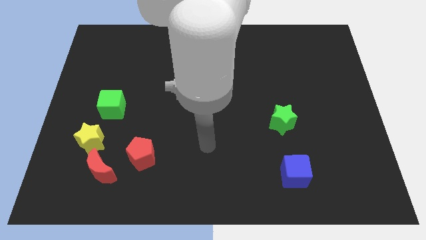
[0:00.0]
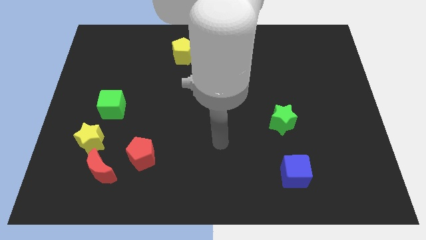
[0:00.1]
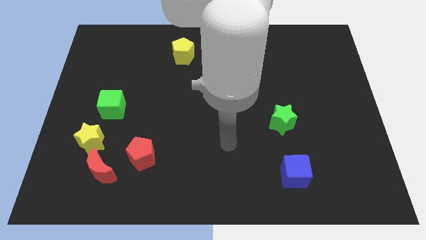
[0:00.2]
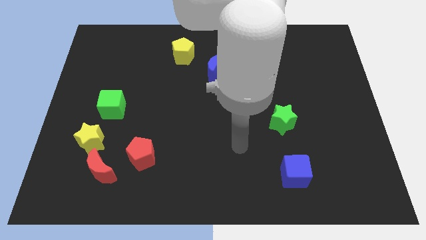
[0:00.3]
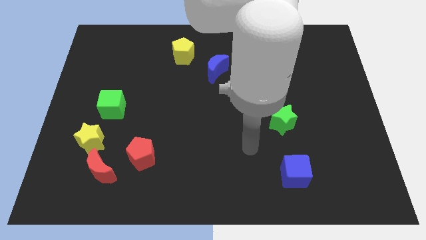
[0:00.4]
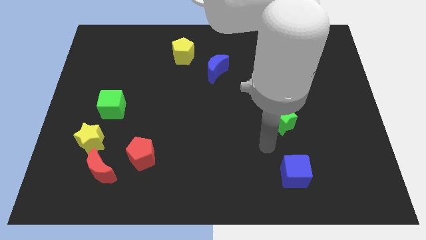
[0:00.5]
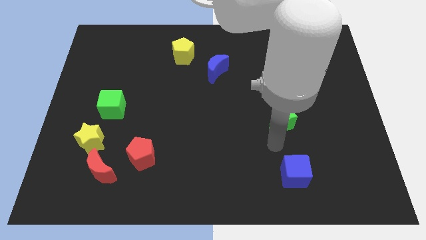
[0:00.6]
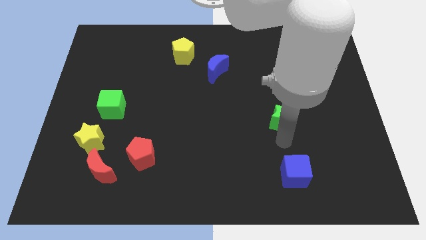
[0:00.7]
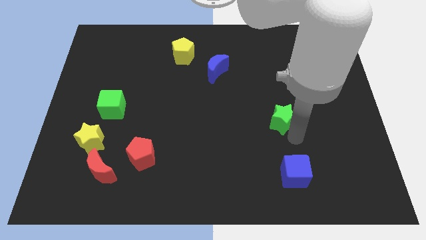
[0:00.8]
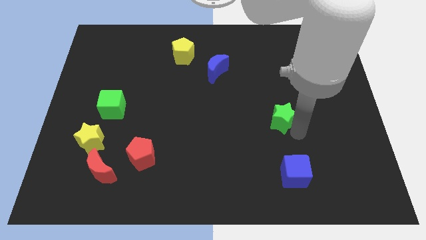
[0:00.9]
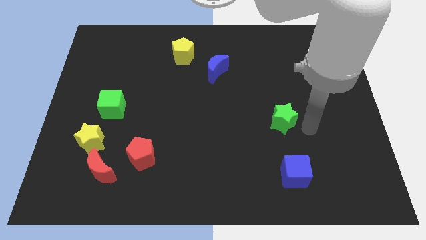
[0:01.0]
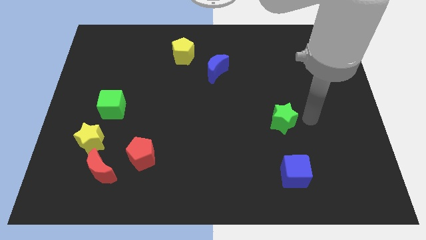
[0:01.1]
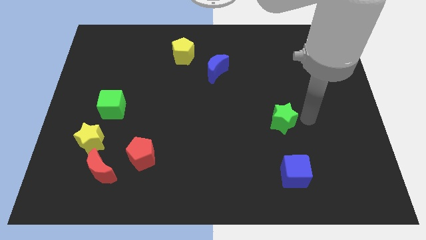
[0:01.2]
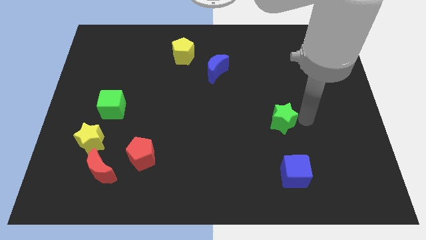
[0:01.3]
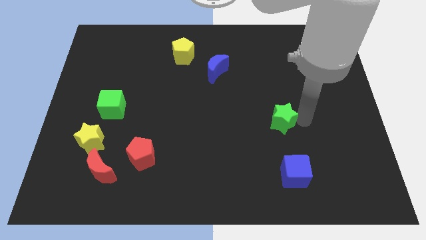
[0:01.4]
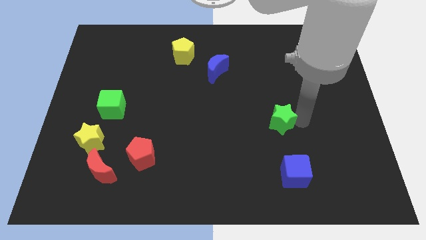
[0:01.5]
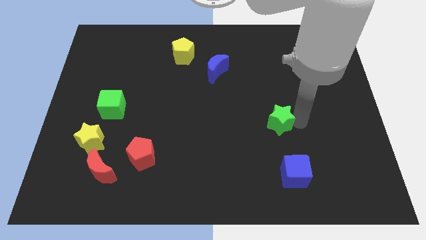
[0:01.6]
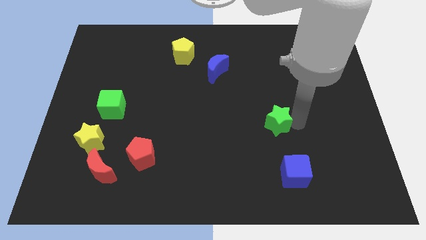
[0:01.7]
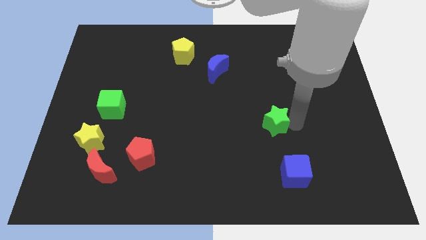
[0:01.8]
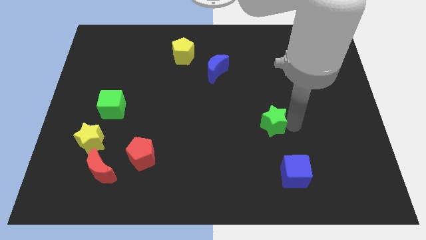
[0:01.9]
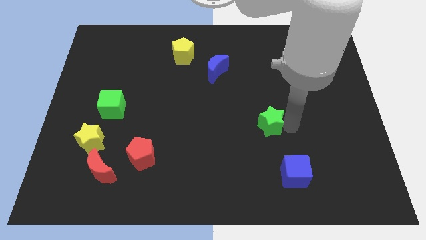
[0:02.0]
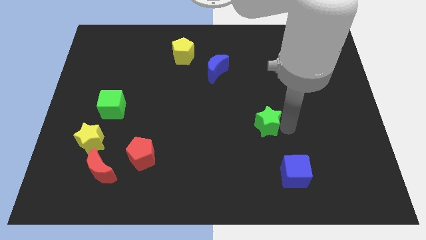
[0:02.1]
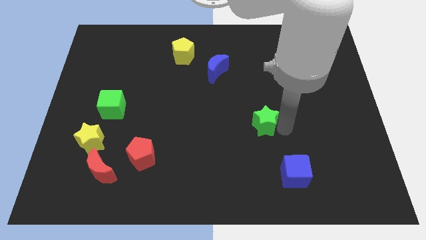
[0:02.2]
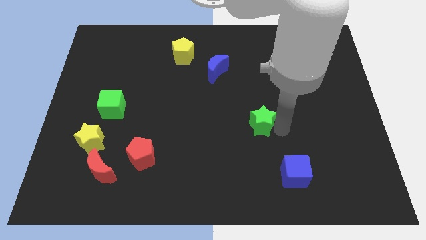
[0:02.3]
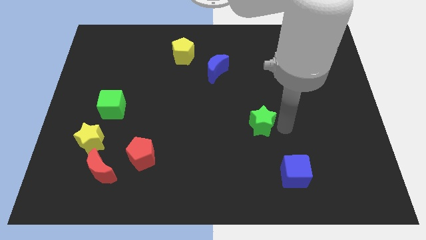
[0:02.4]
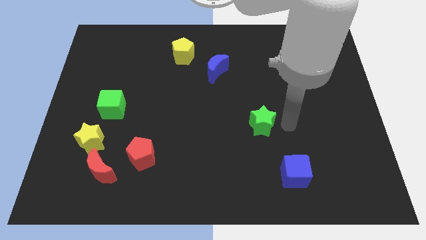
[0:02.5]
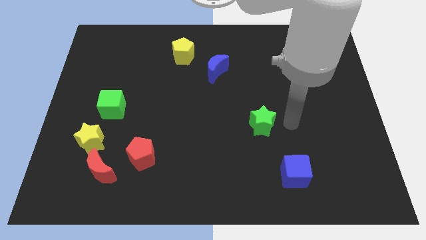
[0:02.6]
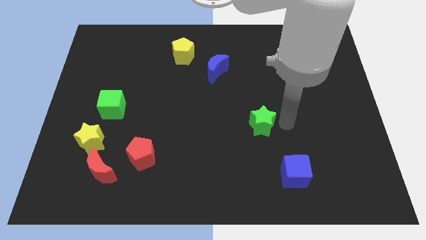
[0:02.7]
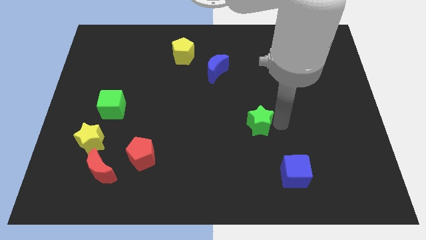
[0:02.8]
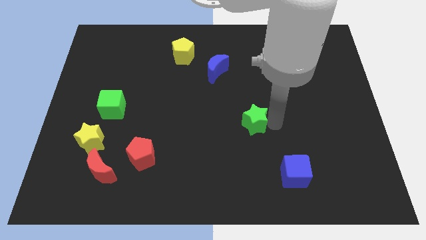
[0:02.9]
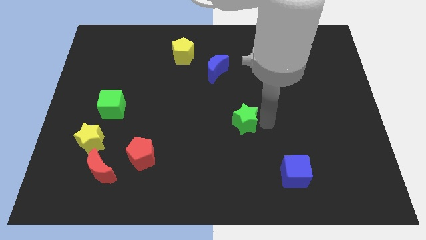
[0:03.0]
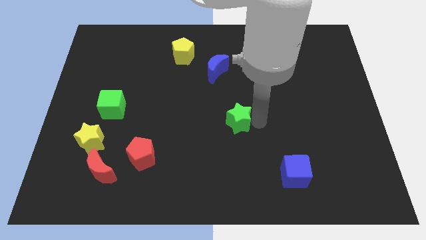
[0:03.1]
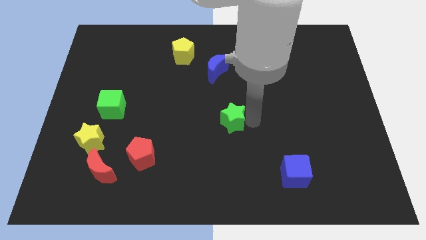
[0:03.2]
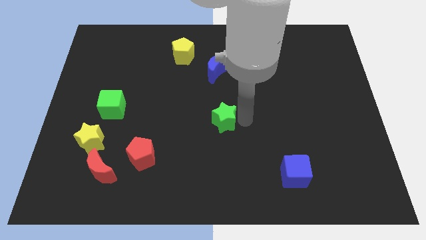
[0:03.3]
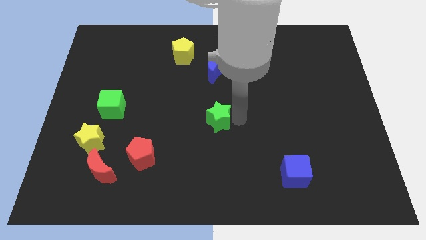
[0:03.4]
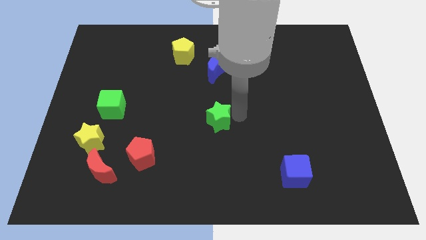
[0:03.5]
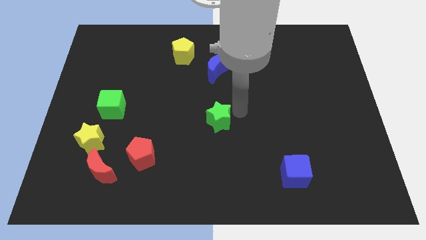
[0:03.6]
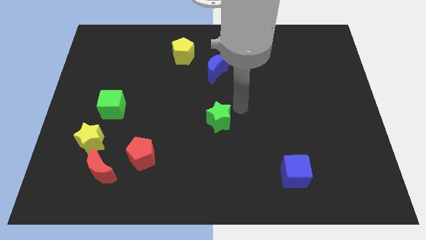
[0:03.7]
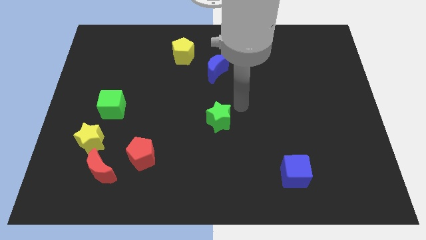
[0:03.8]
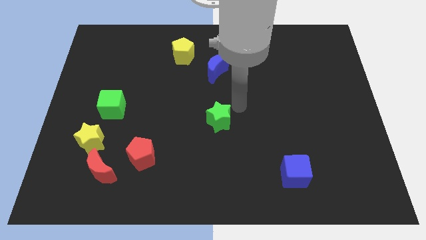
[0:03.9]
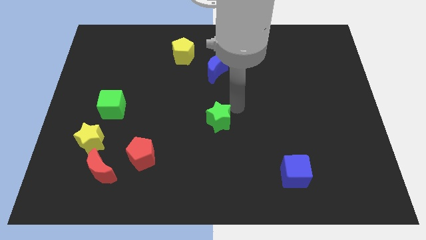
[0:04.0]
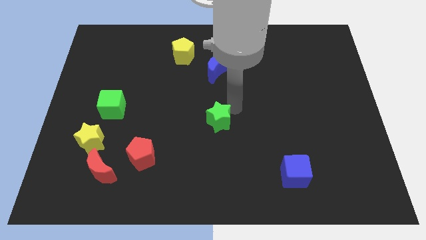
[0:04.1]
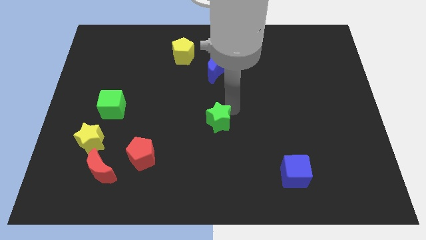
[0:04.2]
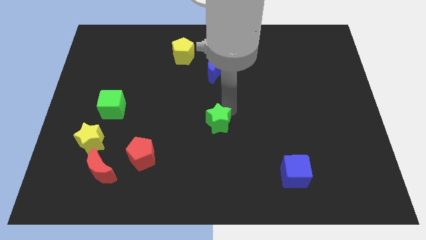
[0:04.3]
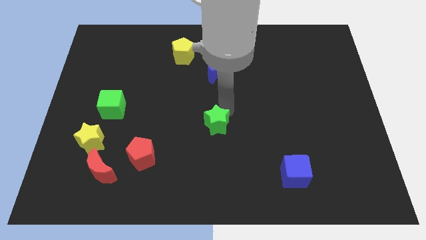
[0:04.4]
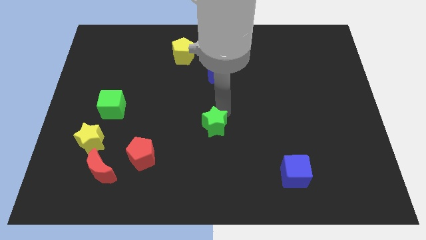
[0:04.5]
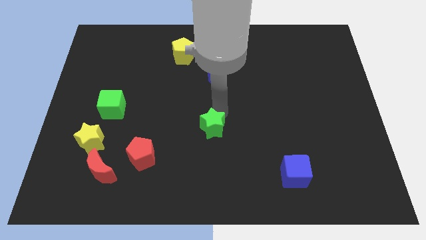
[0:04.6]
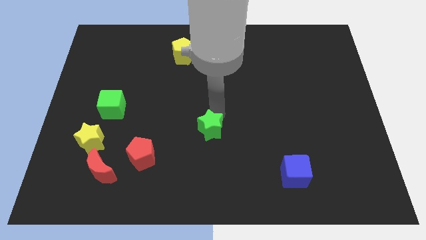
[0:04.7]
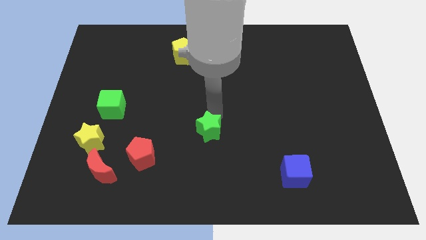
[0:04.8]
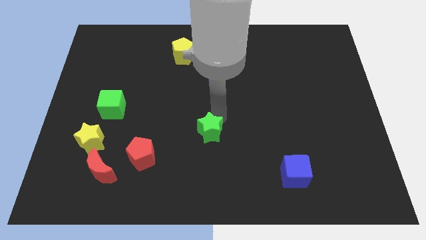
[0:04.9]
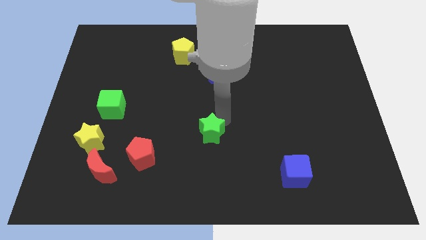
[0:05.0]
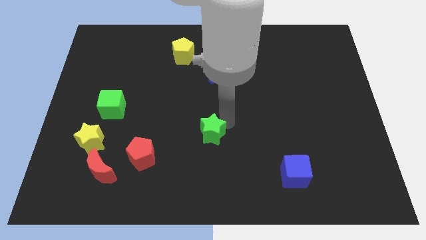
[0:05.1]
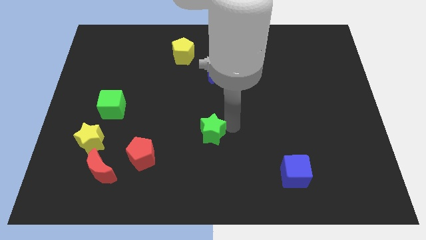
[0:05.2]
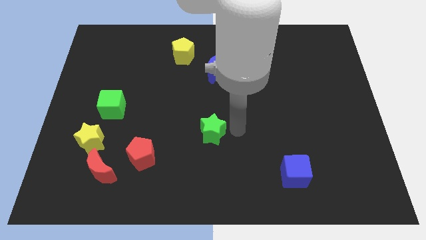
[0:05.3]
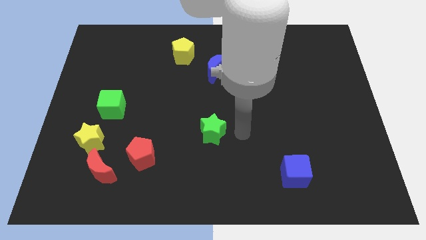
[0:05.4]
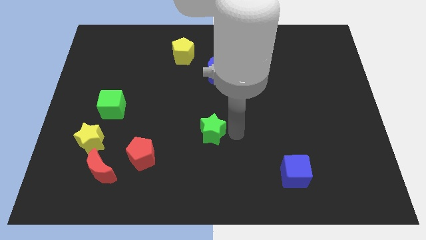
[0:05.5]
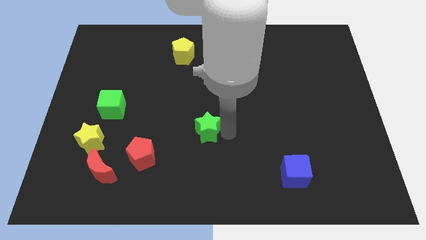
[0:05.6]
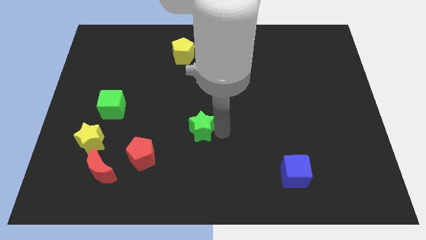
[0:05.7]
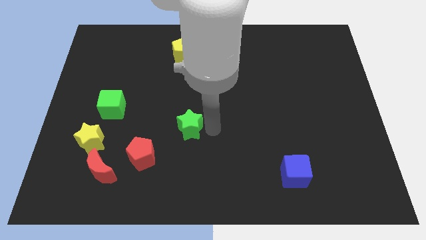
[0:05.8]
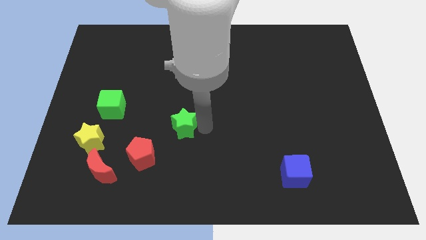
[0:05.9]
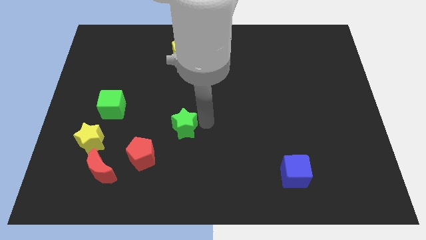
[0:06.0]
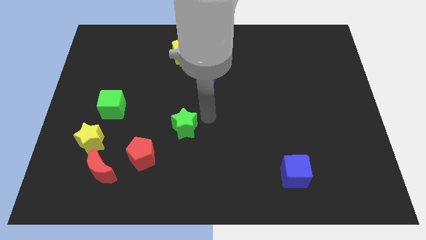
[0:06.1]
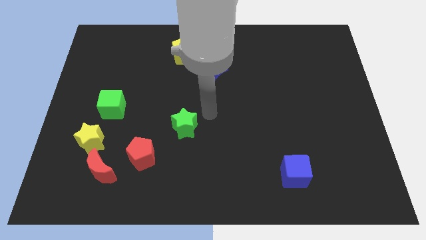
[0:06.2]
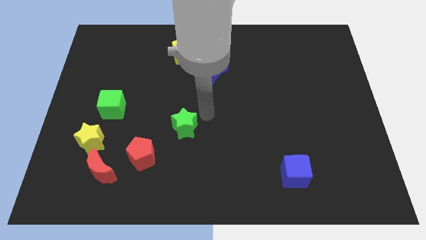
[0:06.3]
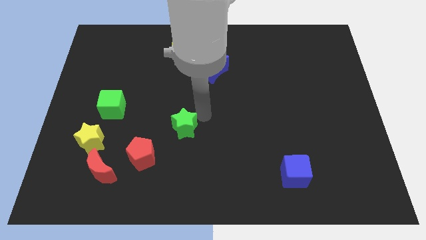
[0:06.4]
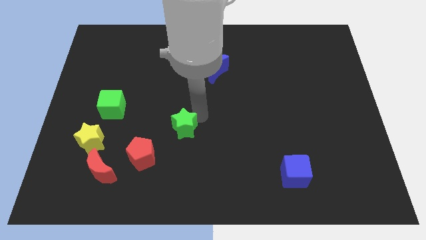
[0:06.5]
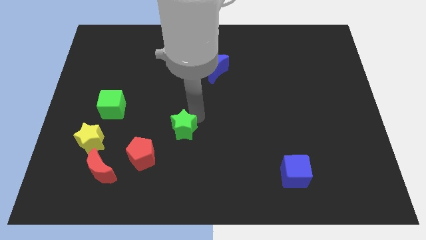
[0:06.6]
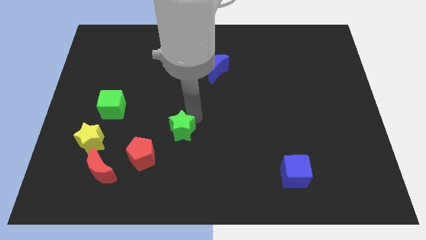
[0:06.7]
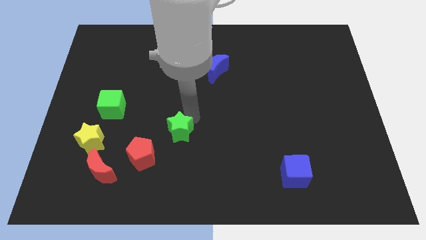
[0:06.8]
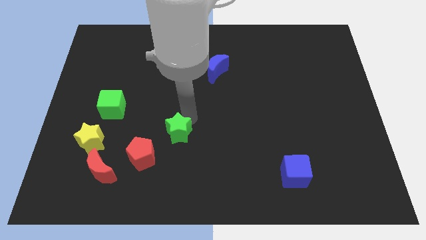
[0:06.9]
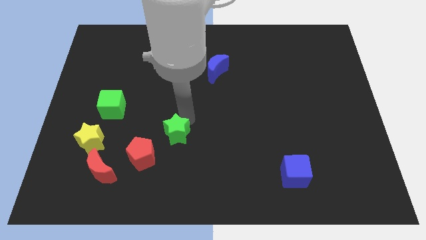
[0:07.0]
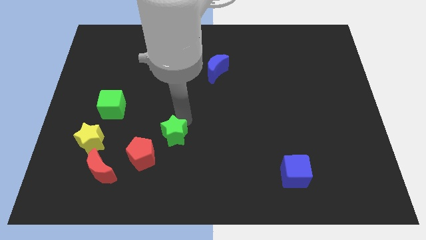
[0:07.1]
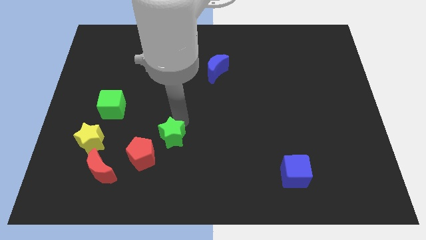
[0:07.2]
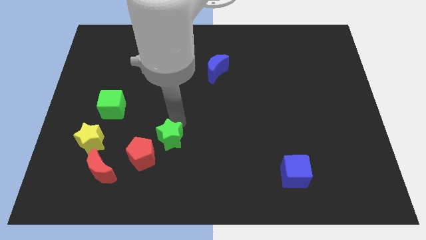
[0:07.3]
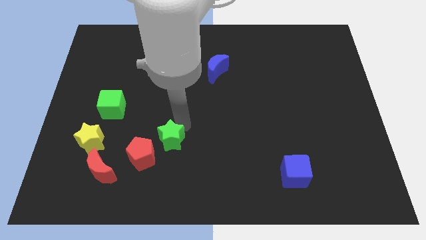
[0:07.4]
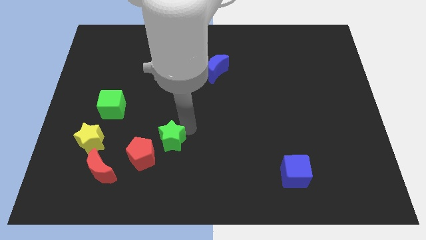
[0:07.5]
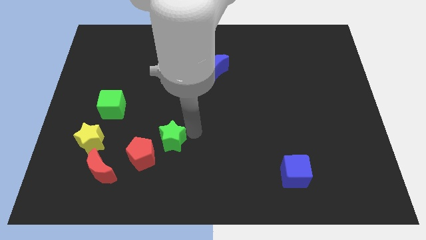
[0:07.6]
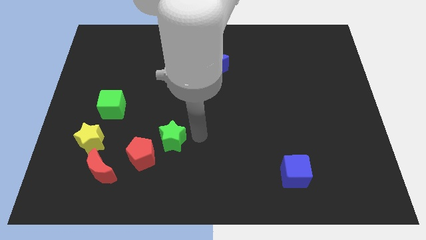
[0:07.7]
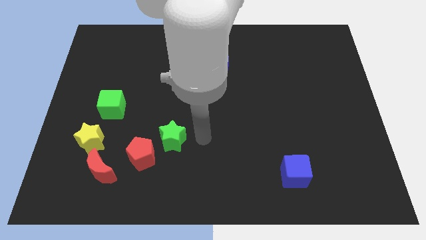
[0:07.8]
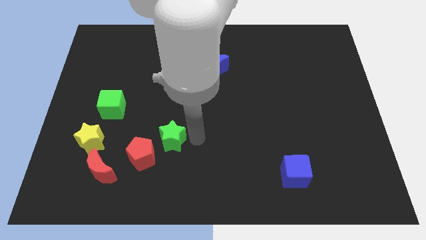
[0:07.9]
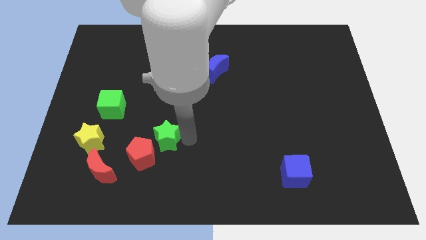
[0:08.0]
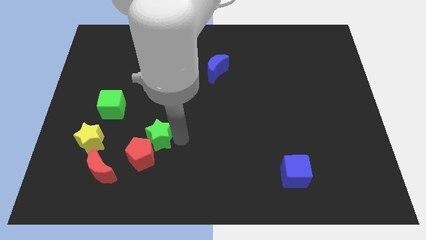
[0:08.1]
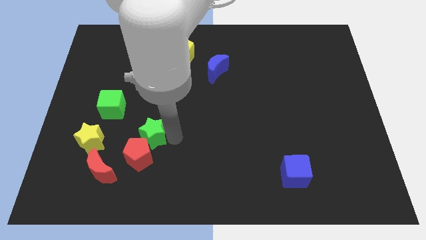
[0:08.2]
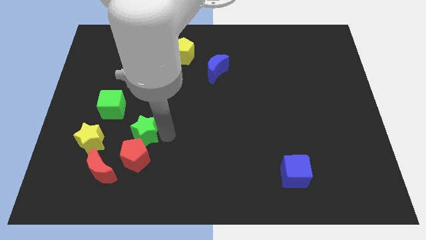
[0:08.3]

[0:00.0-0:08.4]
move the green star to the top right side of the red moon
